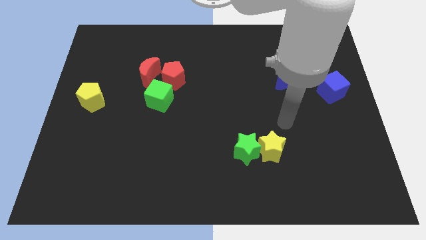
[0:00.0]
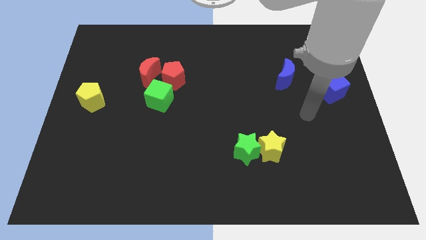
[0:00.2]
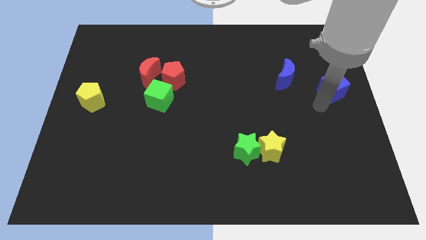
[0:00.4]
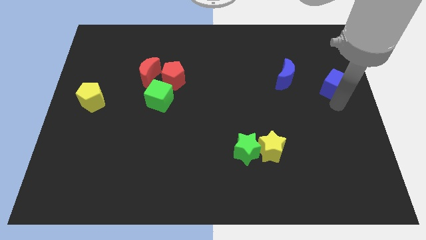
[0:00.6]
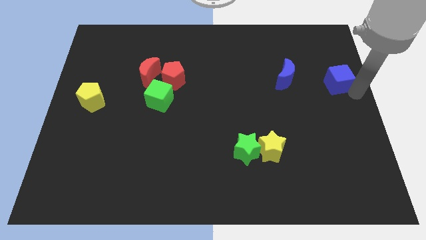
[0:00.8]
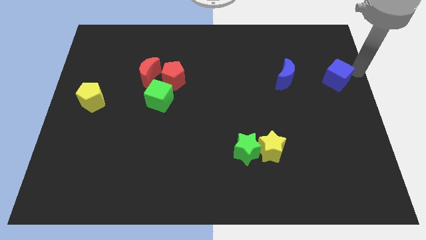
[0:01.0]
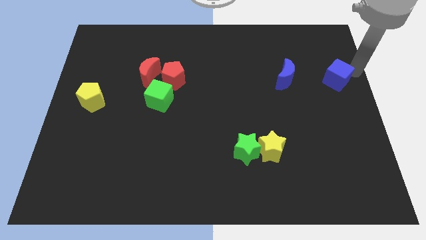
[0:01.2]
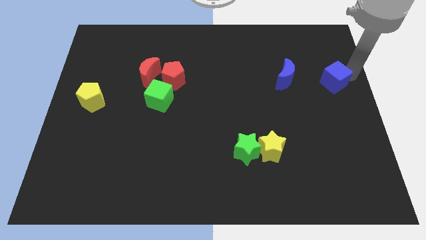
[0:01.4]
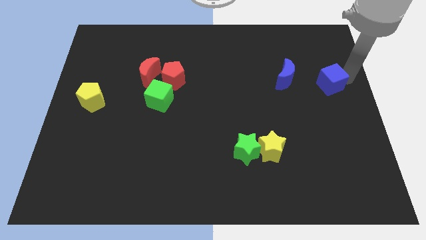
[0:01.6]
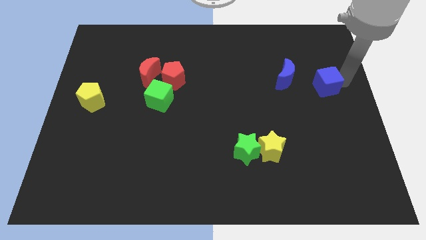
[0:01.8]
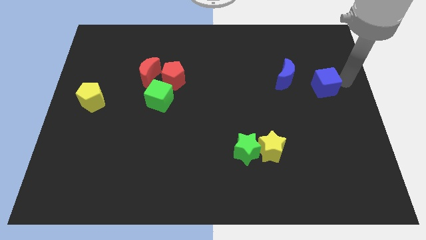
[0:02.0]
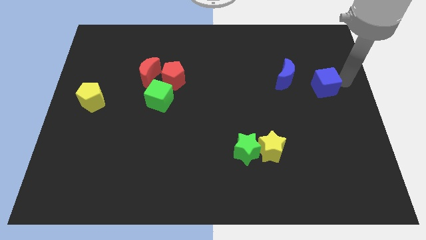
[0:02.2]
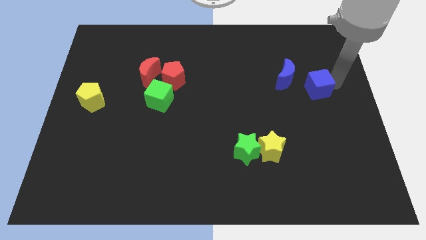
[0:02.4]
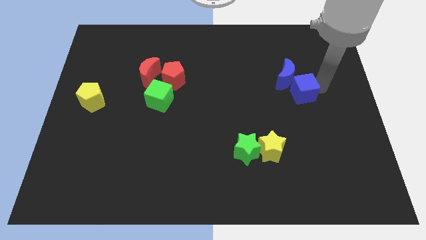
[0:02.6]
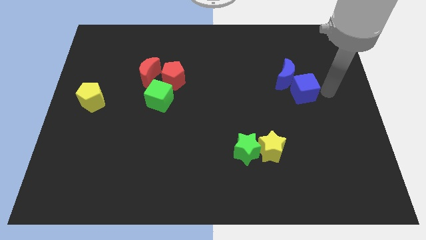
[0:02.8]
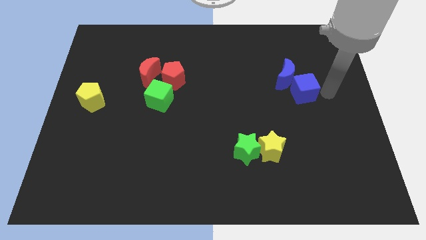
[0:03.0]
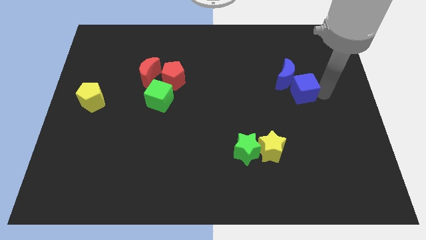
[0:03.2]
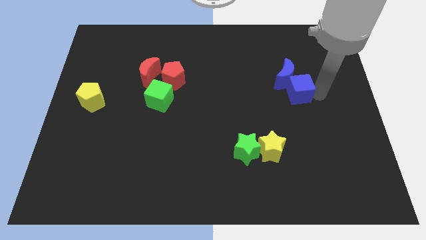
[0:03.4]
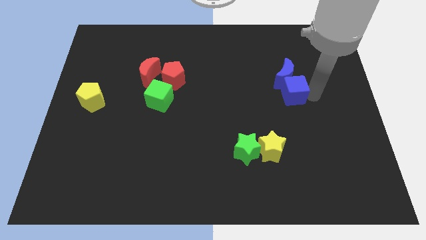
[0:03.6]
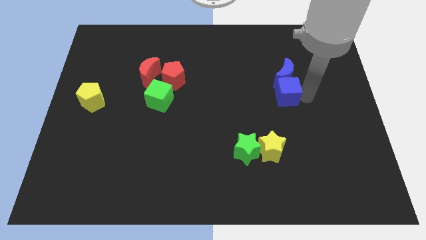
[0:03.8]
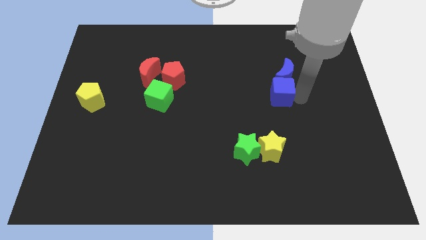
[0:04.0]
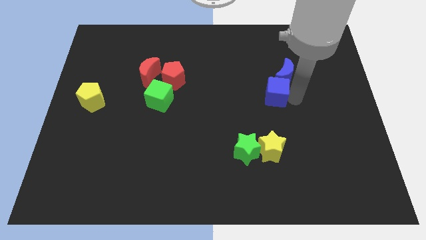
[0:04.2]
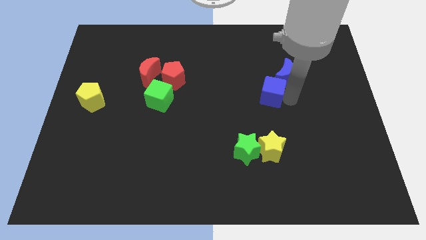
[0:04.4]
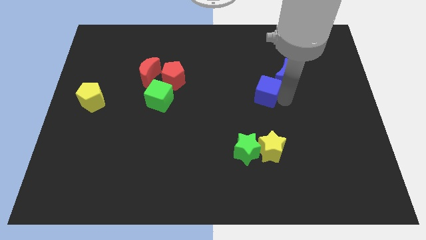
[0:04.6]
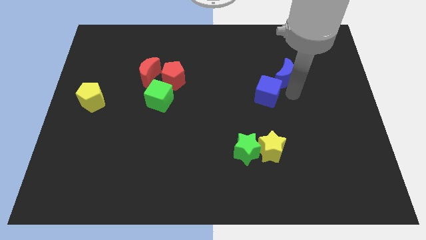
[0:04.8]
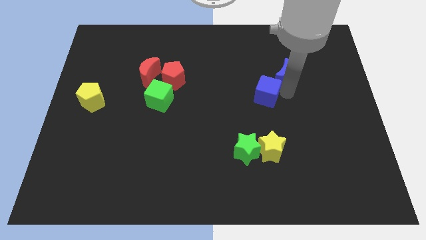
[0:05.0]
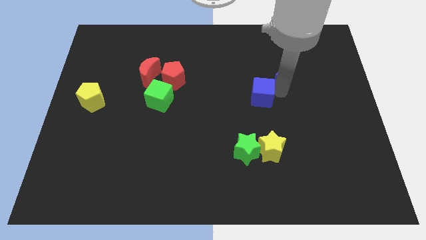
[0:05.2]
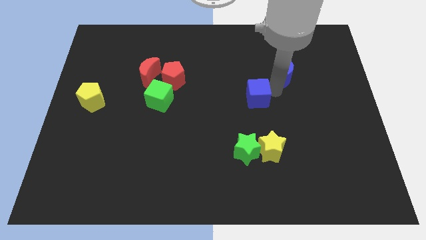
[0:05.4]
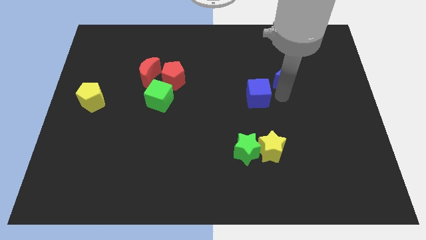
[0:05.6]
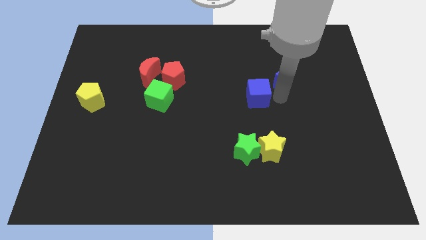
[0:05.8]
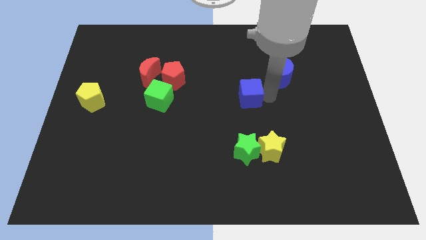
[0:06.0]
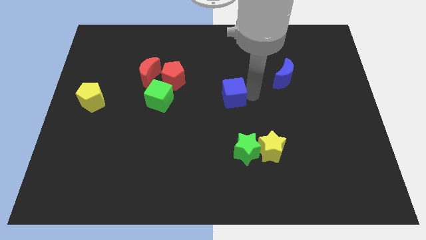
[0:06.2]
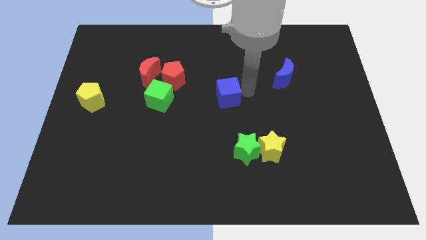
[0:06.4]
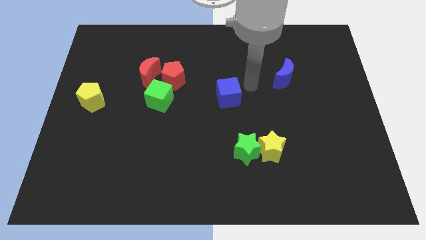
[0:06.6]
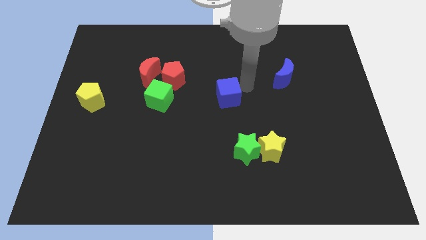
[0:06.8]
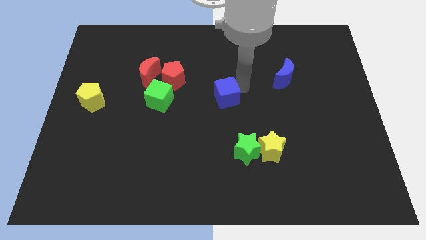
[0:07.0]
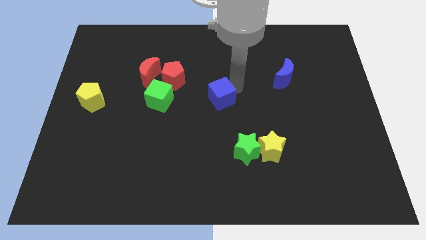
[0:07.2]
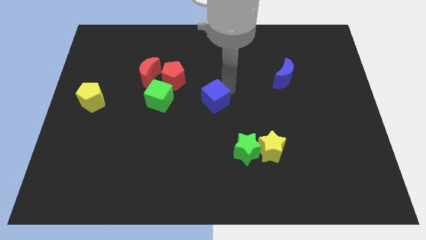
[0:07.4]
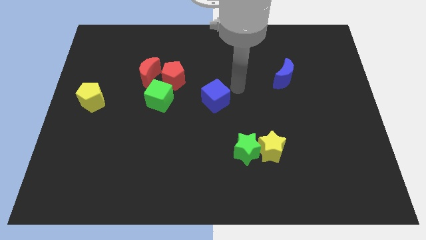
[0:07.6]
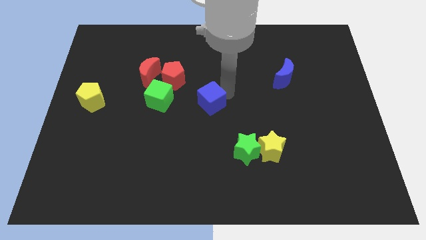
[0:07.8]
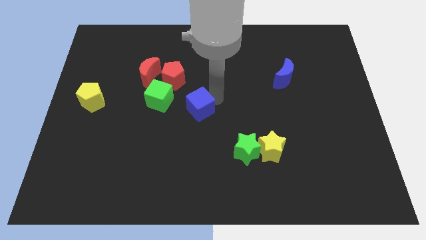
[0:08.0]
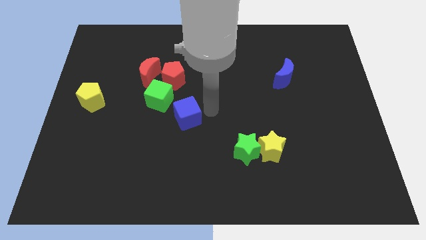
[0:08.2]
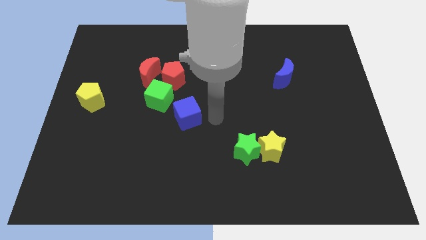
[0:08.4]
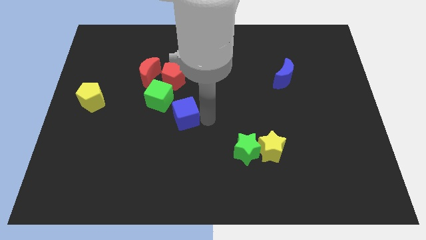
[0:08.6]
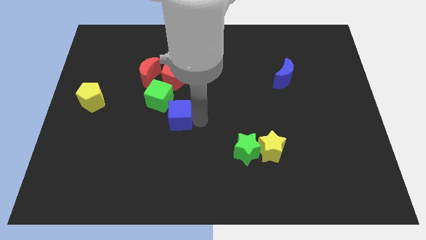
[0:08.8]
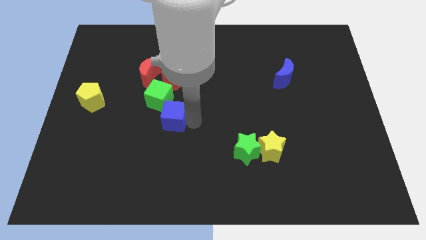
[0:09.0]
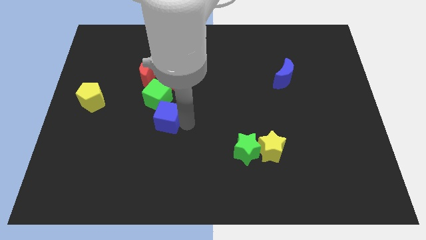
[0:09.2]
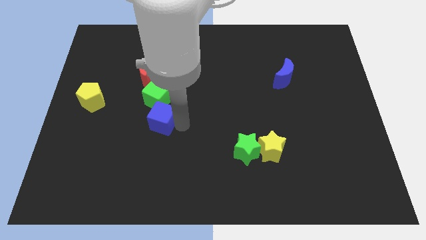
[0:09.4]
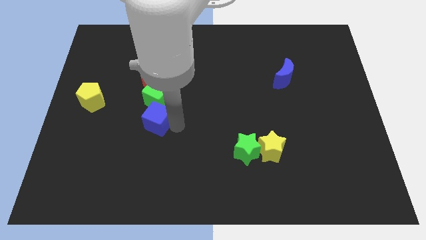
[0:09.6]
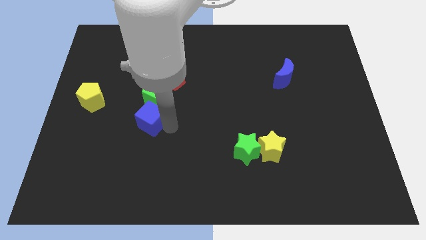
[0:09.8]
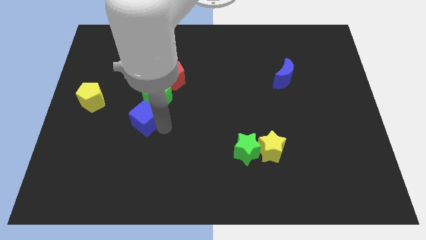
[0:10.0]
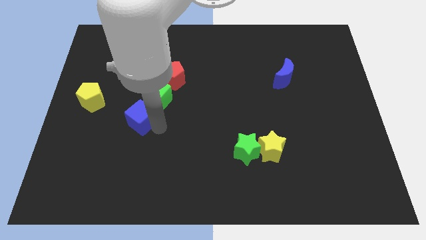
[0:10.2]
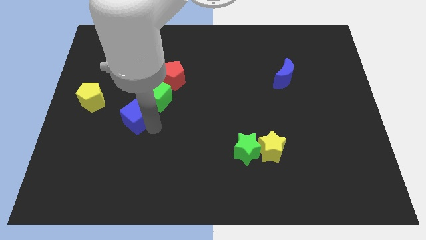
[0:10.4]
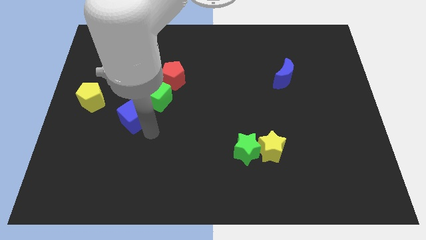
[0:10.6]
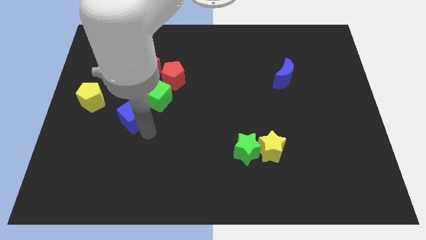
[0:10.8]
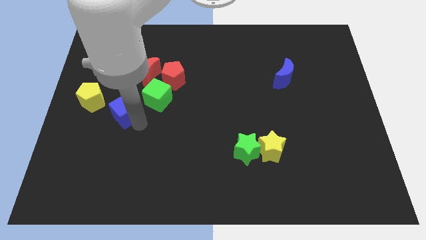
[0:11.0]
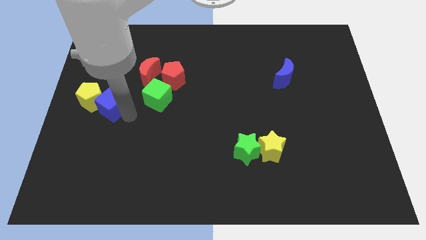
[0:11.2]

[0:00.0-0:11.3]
slide the blue cube close to the yellow pentagon

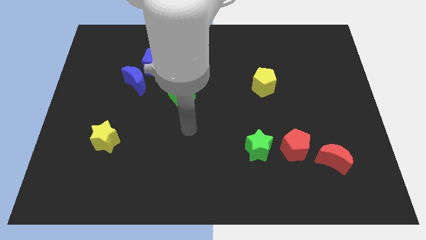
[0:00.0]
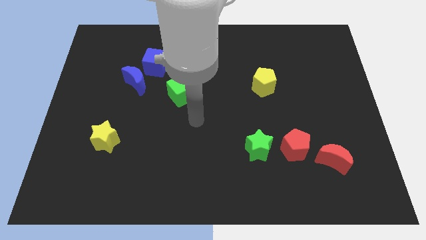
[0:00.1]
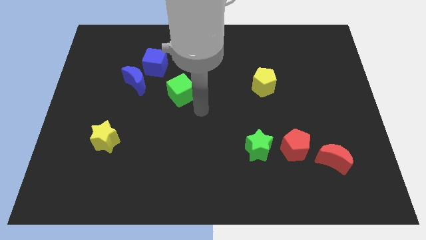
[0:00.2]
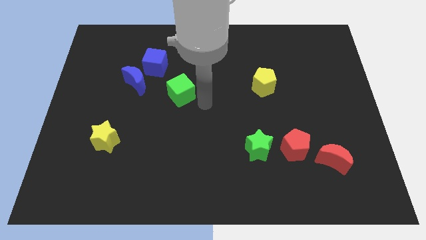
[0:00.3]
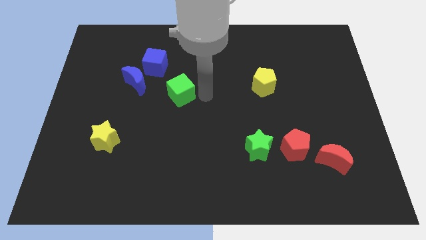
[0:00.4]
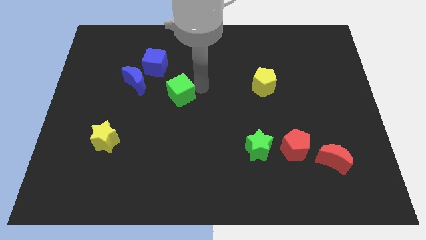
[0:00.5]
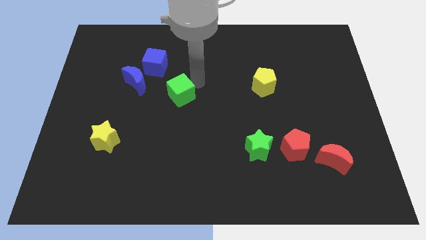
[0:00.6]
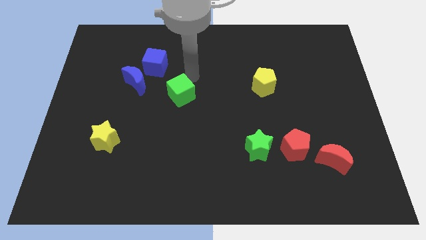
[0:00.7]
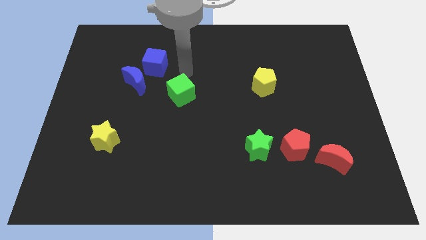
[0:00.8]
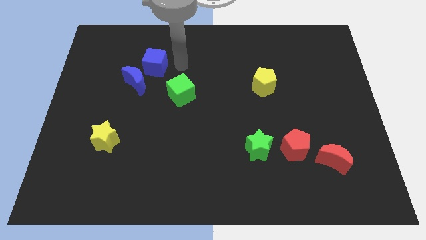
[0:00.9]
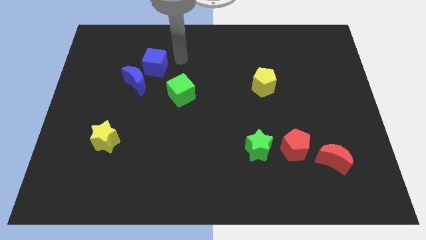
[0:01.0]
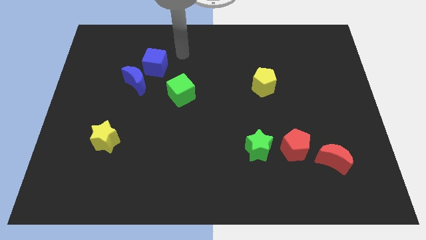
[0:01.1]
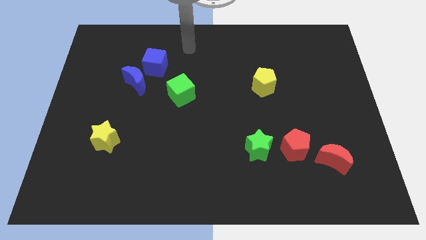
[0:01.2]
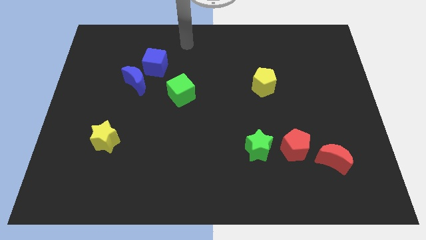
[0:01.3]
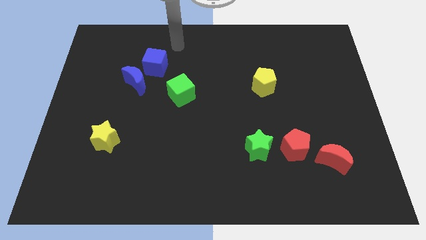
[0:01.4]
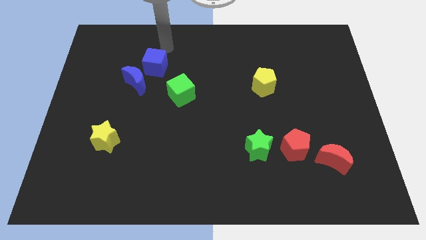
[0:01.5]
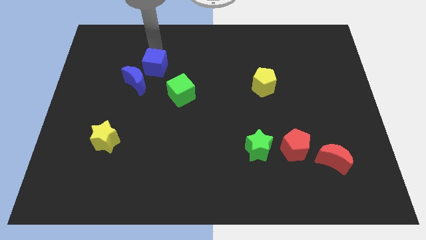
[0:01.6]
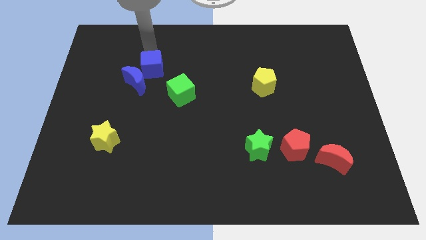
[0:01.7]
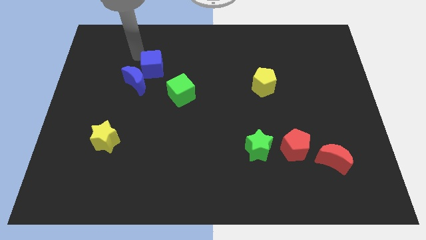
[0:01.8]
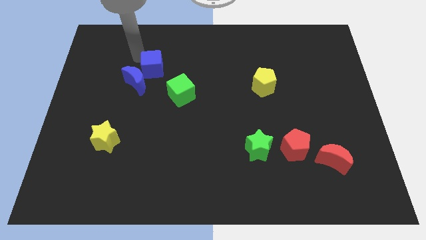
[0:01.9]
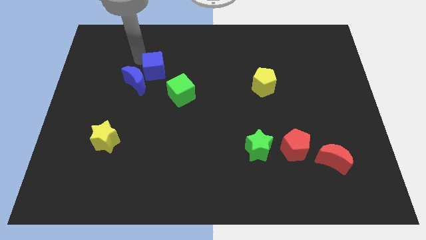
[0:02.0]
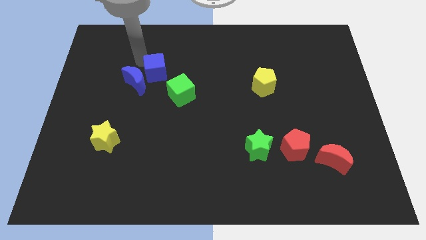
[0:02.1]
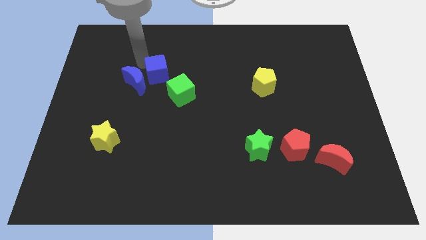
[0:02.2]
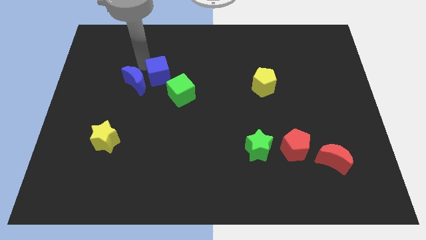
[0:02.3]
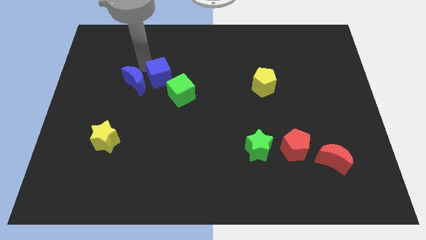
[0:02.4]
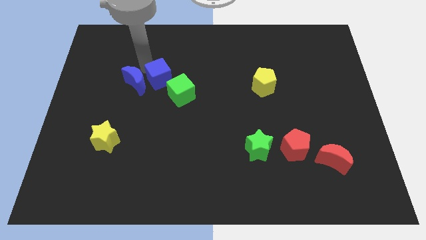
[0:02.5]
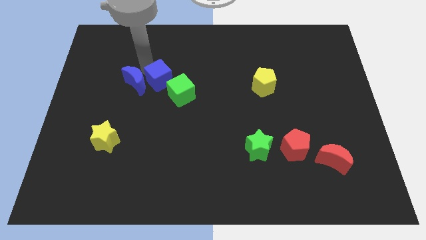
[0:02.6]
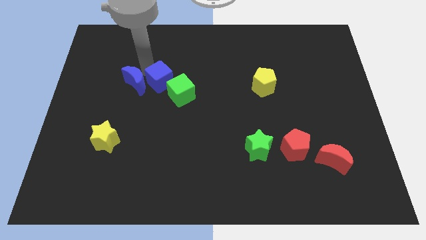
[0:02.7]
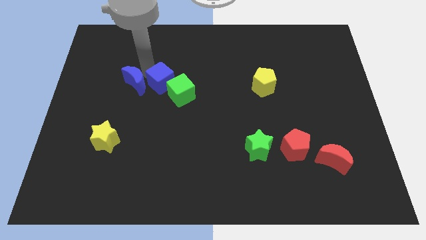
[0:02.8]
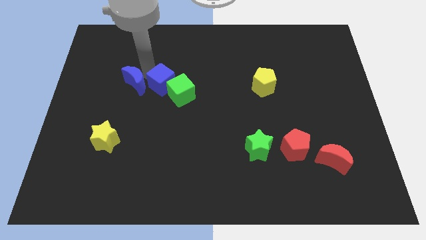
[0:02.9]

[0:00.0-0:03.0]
put the blue cube towards the green cube
